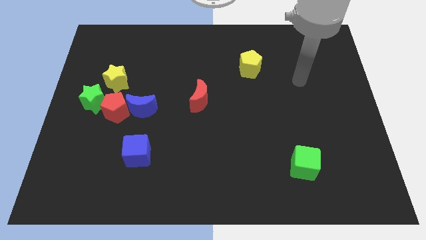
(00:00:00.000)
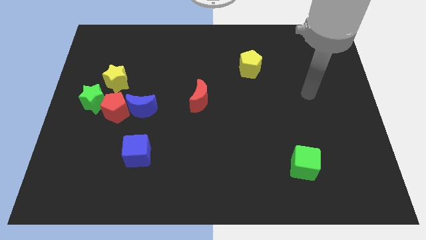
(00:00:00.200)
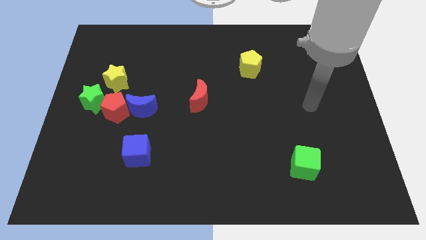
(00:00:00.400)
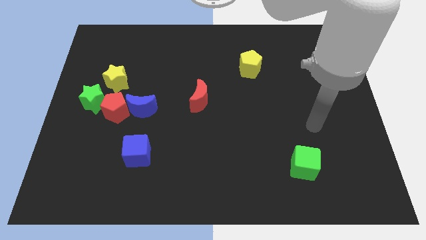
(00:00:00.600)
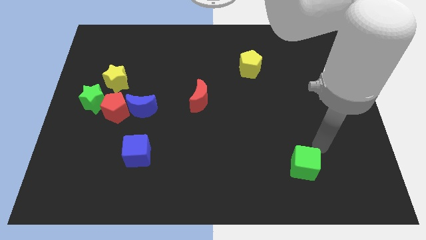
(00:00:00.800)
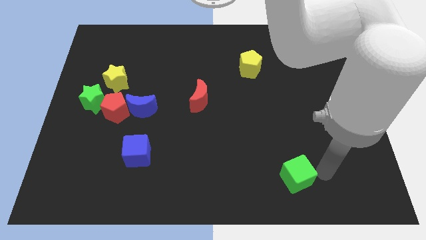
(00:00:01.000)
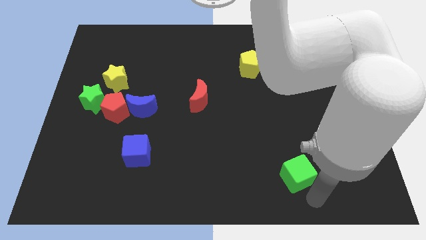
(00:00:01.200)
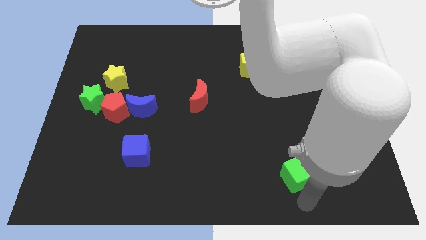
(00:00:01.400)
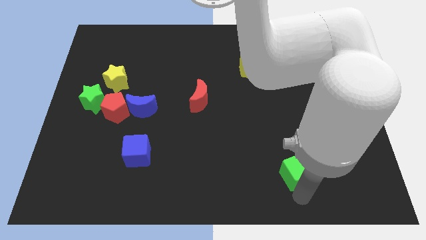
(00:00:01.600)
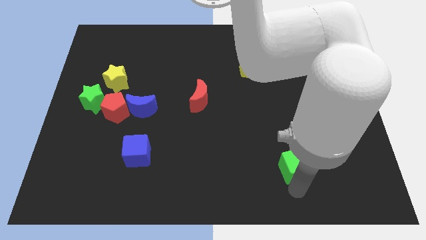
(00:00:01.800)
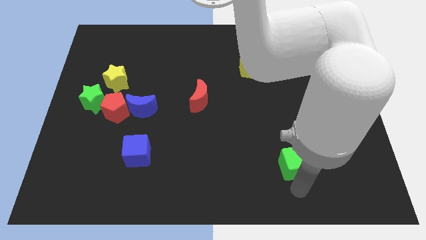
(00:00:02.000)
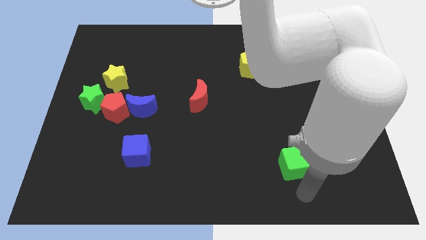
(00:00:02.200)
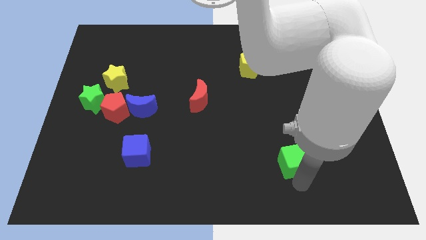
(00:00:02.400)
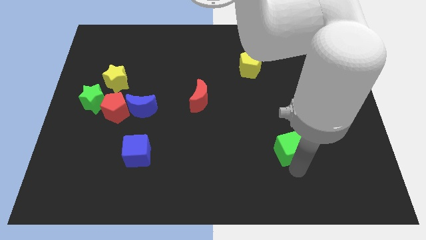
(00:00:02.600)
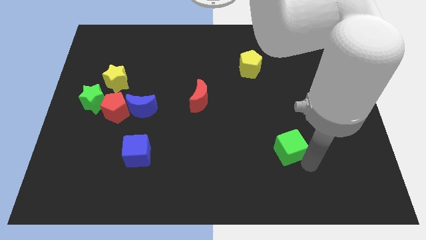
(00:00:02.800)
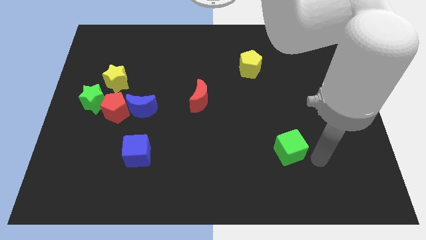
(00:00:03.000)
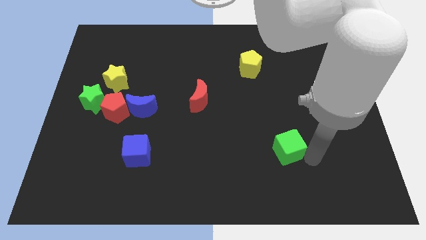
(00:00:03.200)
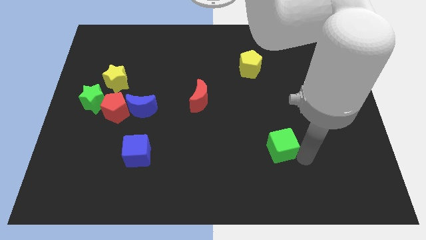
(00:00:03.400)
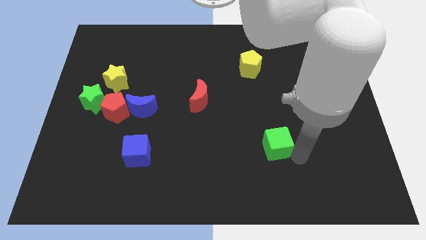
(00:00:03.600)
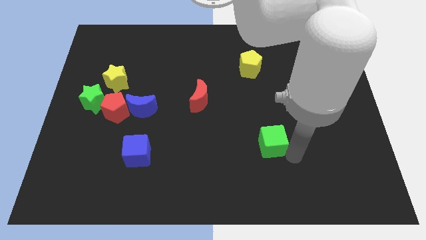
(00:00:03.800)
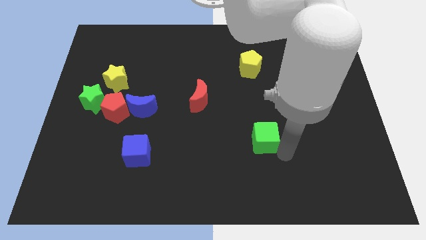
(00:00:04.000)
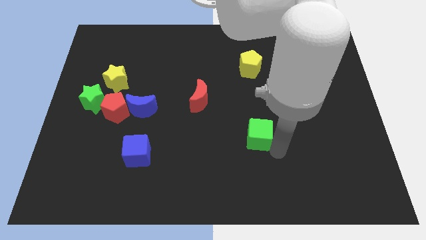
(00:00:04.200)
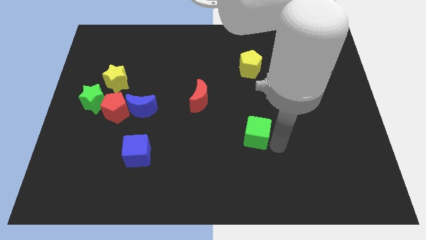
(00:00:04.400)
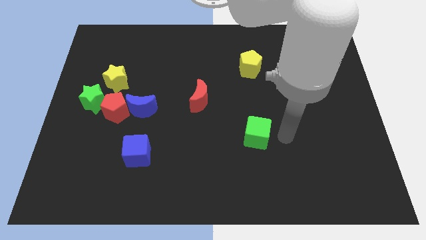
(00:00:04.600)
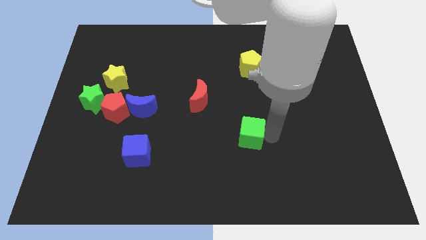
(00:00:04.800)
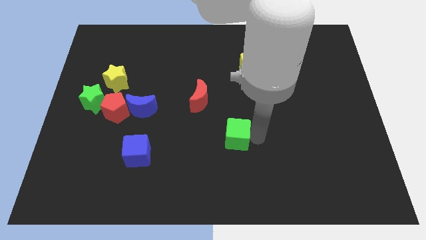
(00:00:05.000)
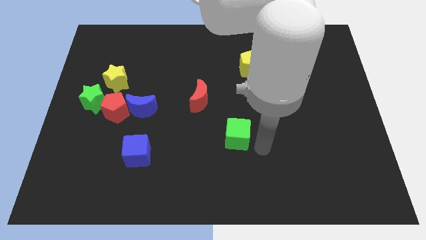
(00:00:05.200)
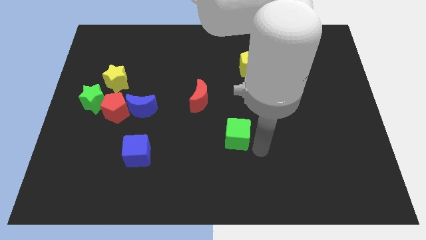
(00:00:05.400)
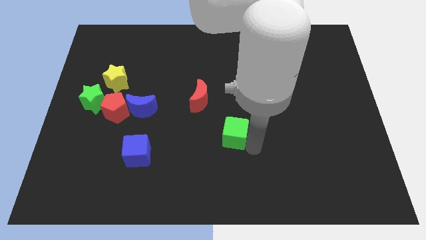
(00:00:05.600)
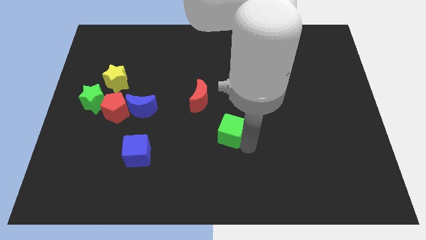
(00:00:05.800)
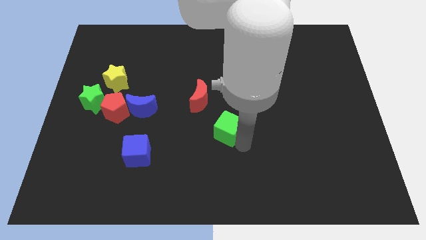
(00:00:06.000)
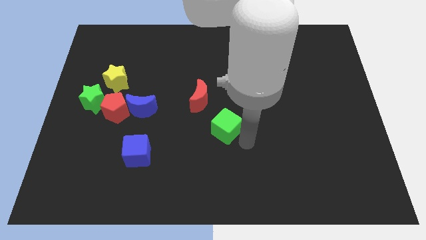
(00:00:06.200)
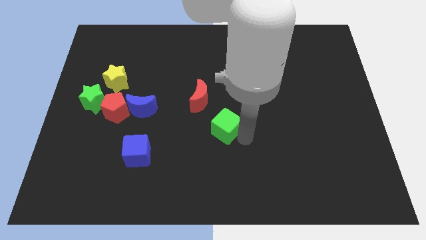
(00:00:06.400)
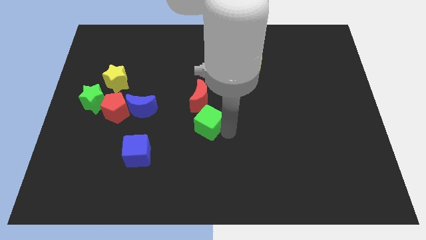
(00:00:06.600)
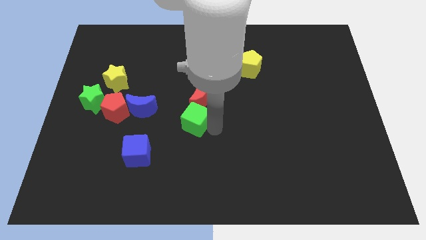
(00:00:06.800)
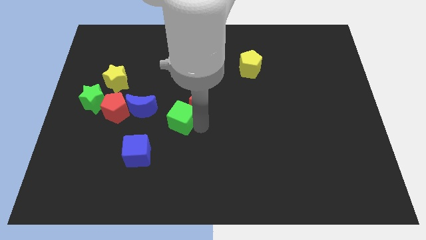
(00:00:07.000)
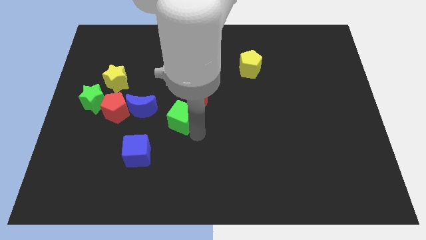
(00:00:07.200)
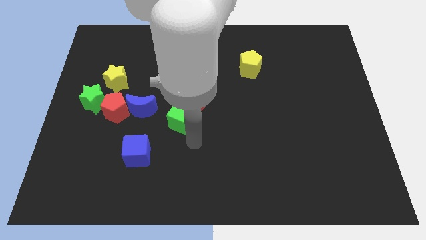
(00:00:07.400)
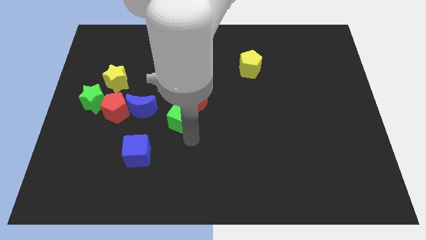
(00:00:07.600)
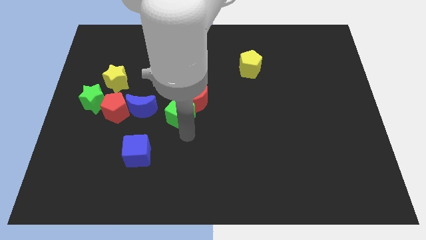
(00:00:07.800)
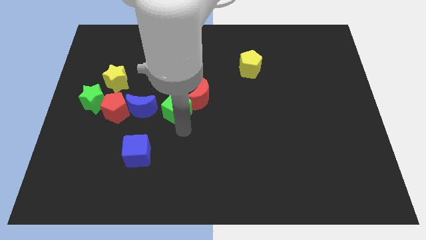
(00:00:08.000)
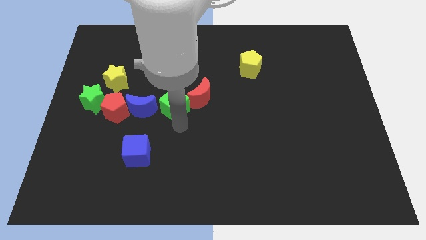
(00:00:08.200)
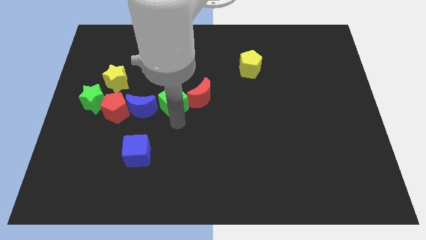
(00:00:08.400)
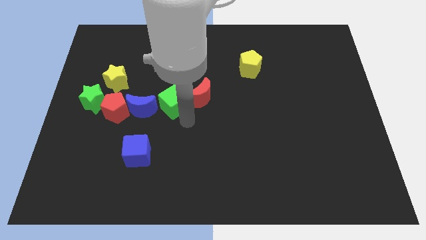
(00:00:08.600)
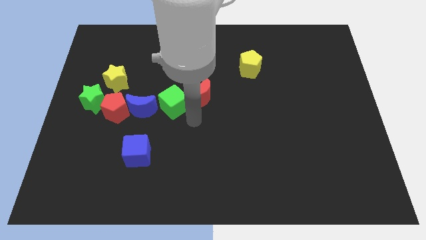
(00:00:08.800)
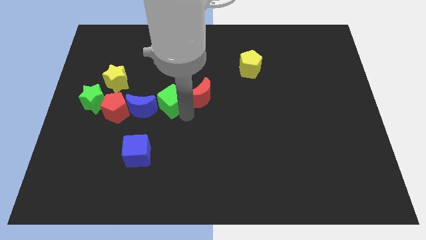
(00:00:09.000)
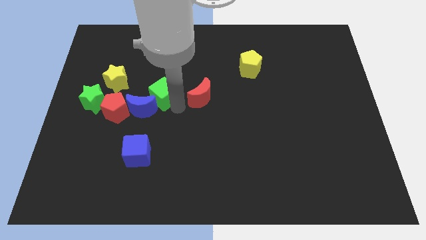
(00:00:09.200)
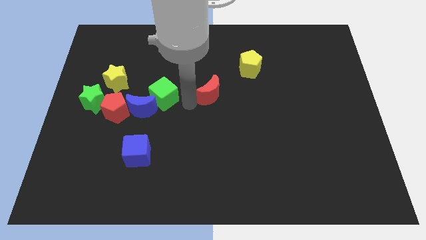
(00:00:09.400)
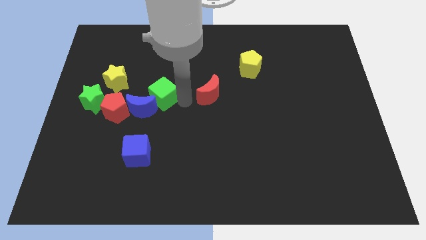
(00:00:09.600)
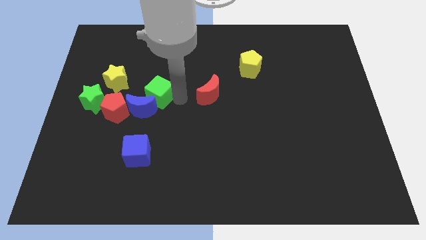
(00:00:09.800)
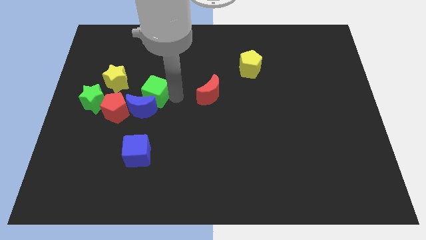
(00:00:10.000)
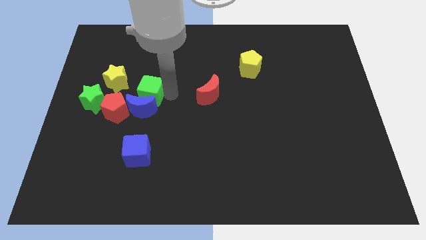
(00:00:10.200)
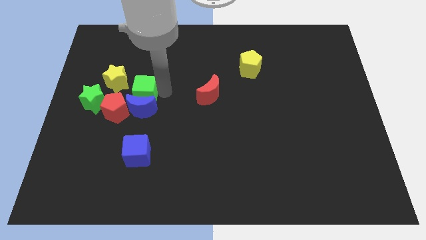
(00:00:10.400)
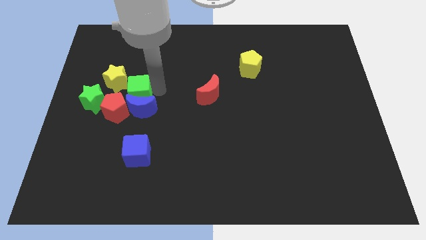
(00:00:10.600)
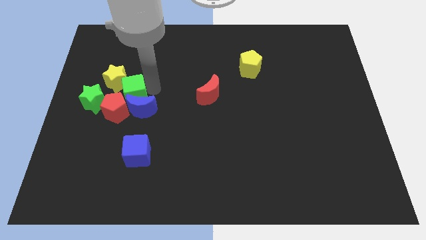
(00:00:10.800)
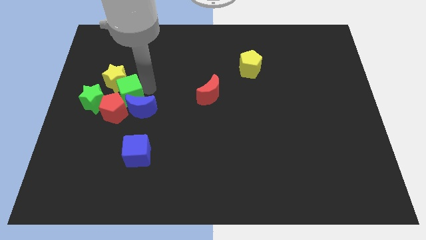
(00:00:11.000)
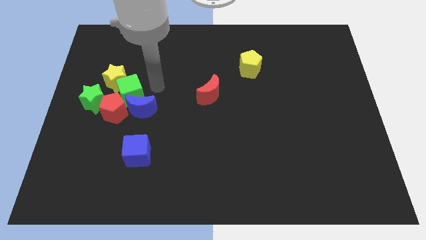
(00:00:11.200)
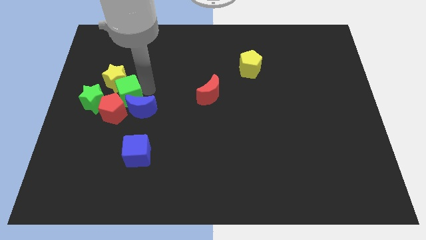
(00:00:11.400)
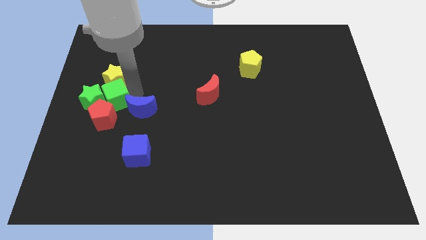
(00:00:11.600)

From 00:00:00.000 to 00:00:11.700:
push the green cube close to the green star

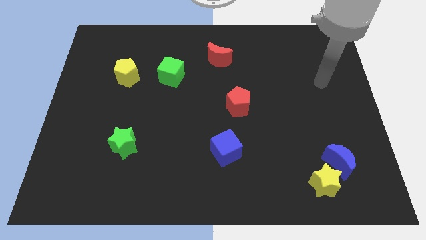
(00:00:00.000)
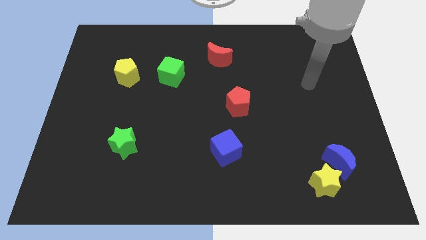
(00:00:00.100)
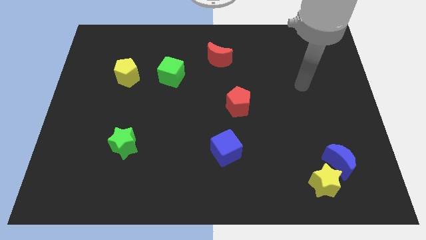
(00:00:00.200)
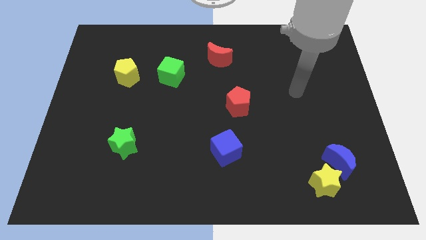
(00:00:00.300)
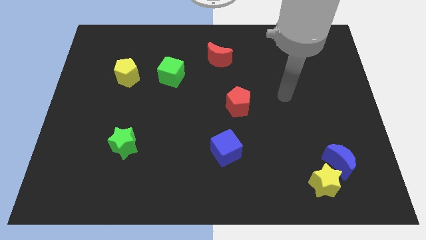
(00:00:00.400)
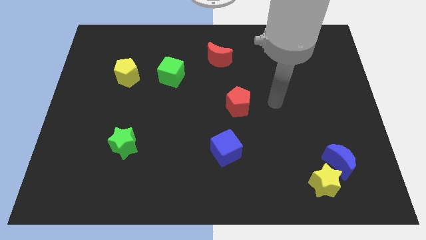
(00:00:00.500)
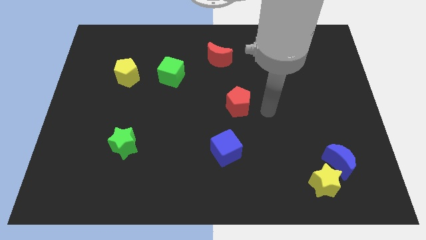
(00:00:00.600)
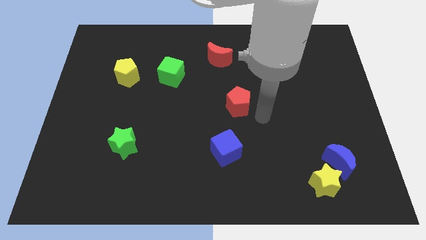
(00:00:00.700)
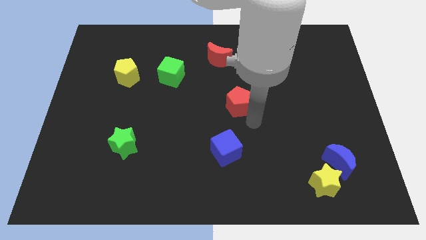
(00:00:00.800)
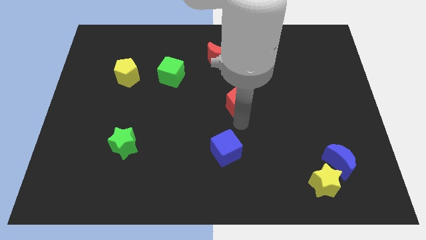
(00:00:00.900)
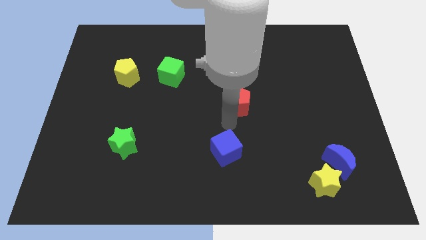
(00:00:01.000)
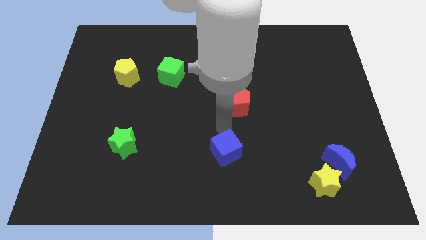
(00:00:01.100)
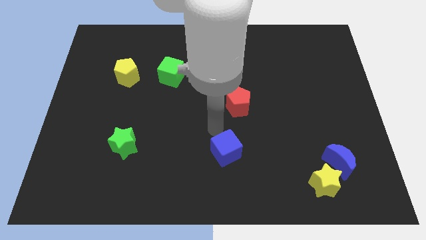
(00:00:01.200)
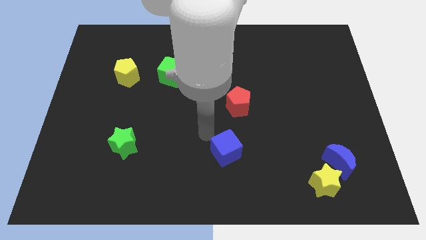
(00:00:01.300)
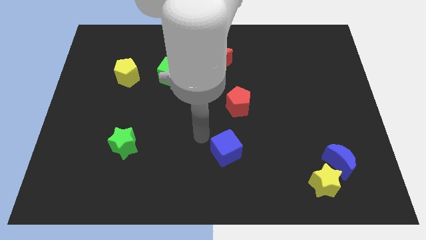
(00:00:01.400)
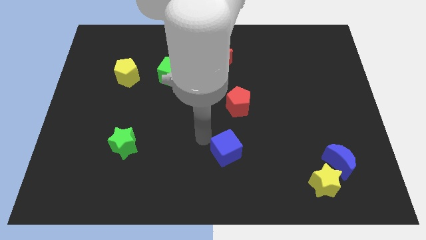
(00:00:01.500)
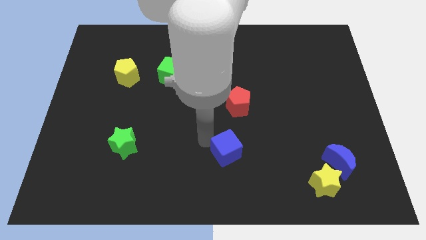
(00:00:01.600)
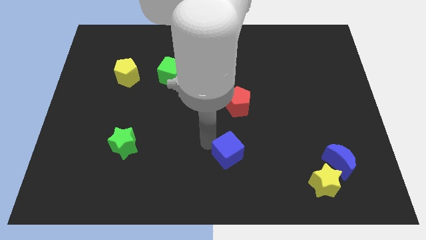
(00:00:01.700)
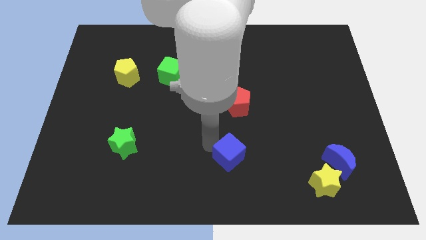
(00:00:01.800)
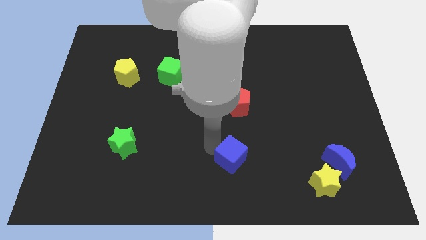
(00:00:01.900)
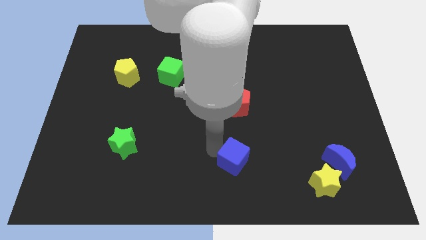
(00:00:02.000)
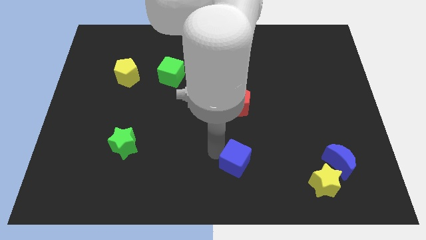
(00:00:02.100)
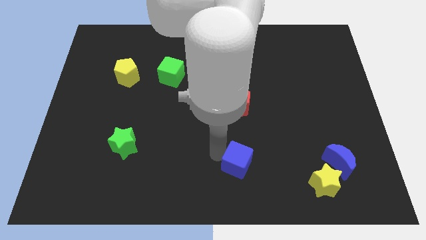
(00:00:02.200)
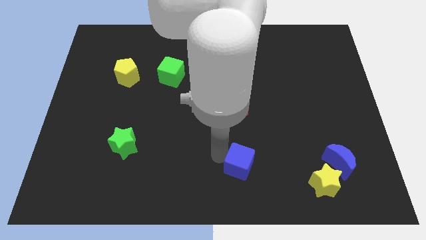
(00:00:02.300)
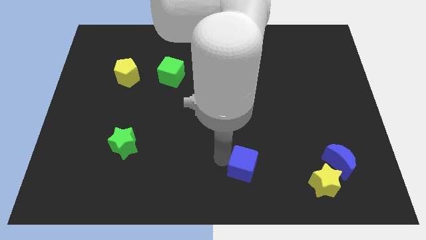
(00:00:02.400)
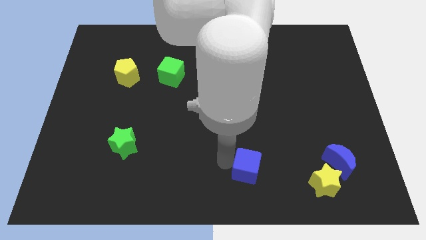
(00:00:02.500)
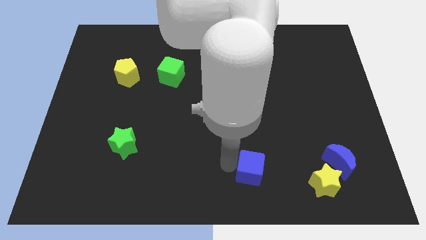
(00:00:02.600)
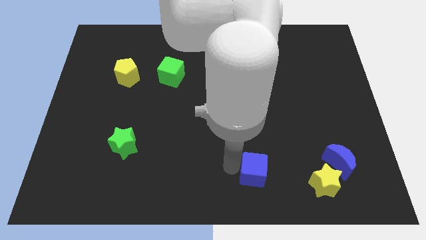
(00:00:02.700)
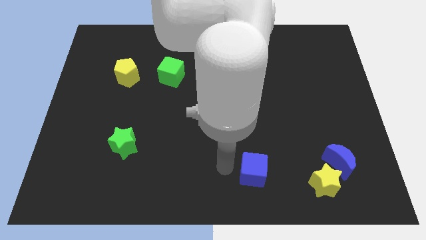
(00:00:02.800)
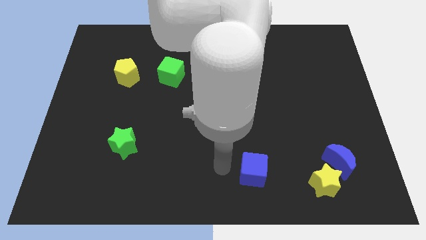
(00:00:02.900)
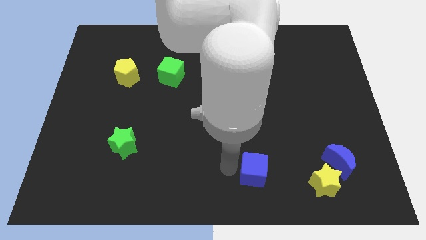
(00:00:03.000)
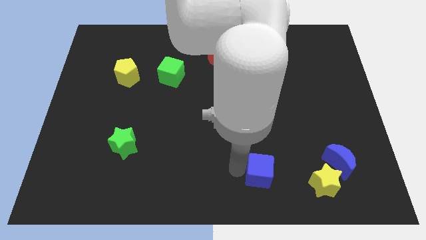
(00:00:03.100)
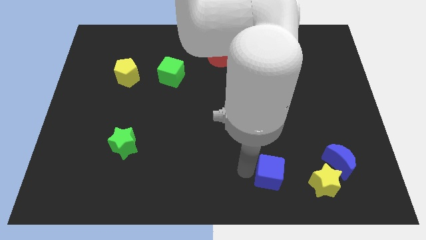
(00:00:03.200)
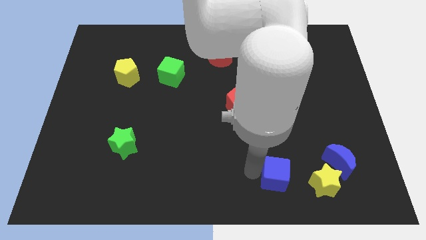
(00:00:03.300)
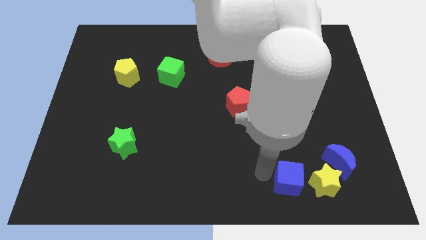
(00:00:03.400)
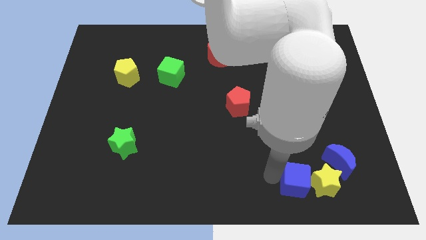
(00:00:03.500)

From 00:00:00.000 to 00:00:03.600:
put the blue cube to the yellow star
